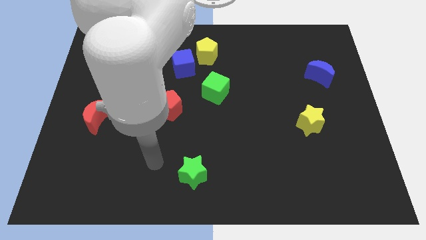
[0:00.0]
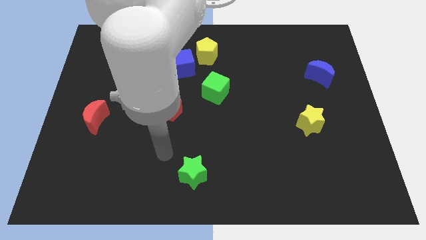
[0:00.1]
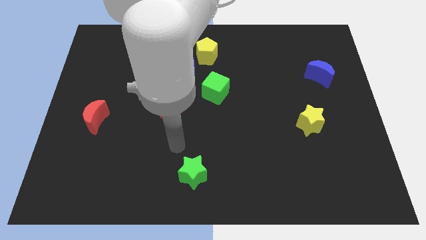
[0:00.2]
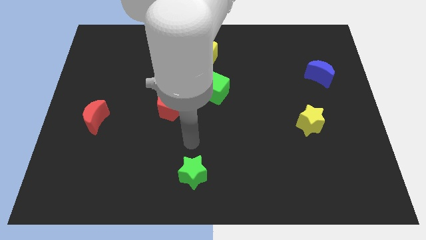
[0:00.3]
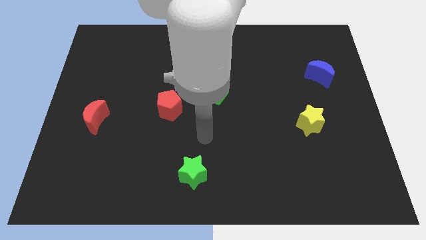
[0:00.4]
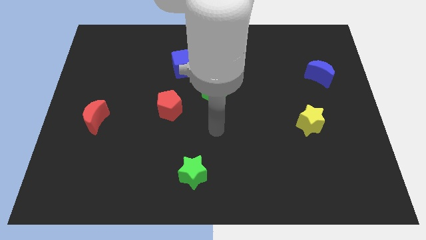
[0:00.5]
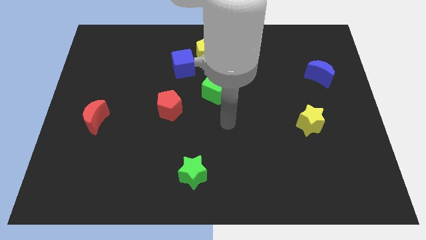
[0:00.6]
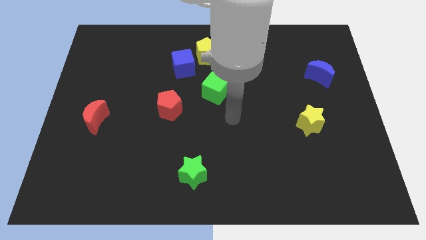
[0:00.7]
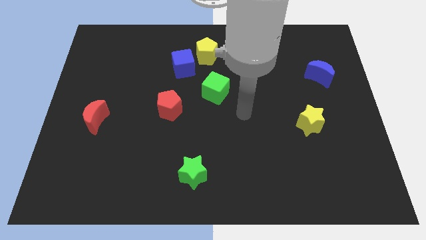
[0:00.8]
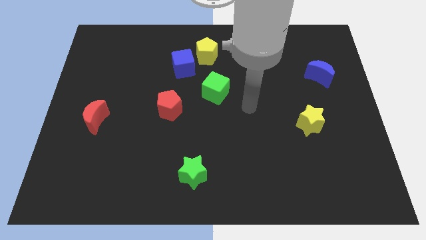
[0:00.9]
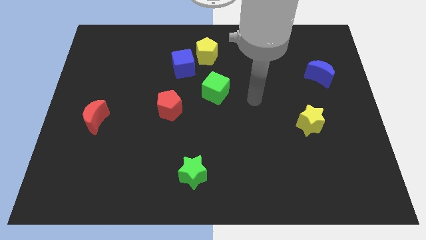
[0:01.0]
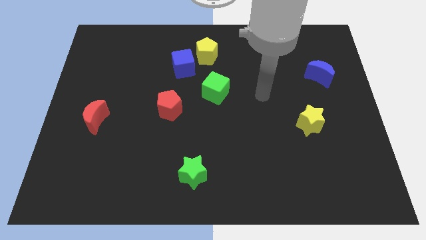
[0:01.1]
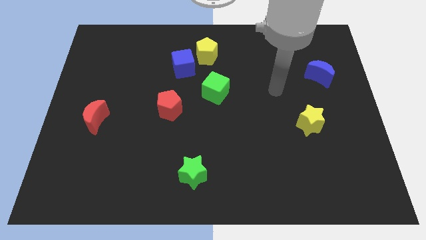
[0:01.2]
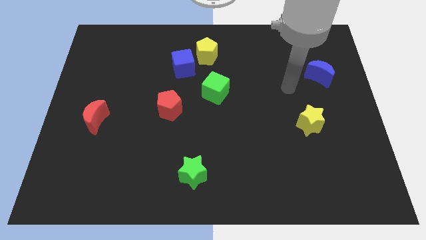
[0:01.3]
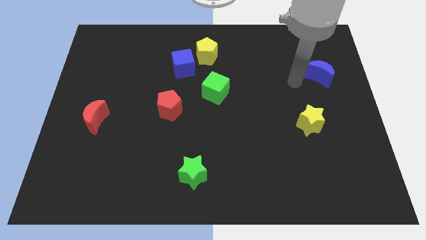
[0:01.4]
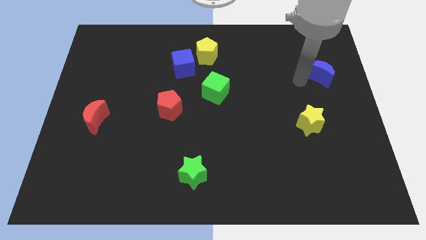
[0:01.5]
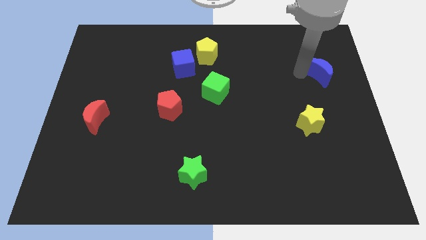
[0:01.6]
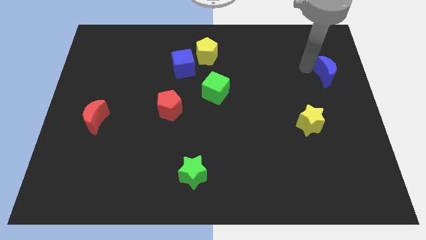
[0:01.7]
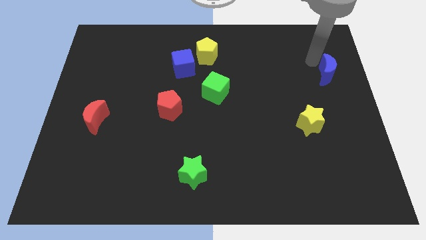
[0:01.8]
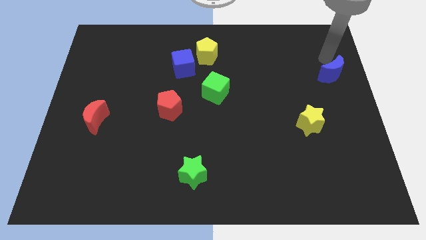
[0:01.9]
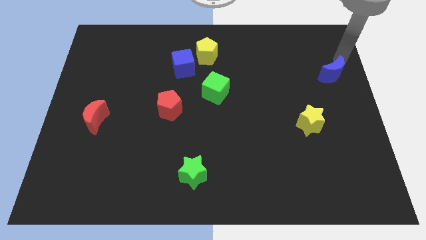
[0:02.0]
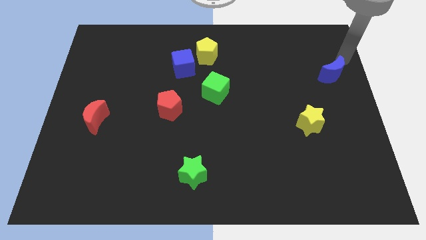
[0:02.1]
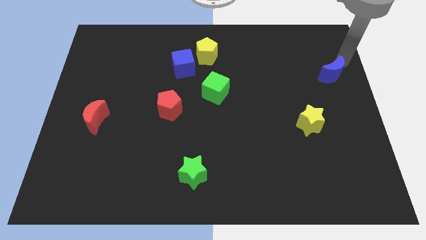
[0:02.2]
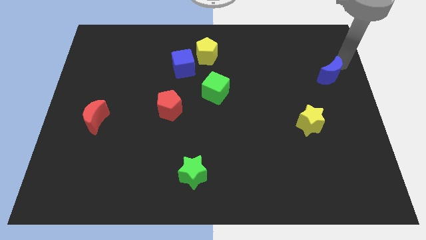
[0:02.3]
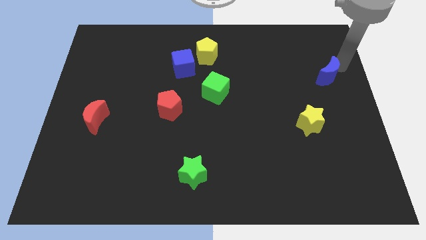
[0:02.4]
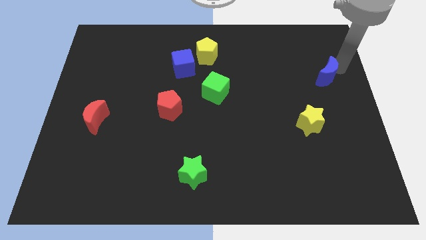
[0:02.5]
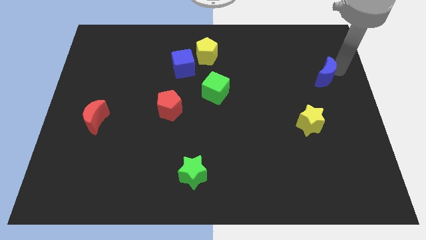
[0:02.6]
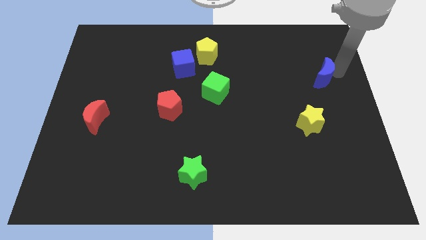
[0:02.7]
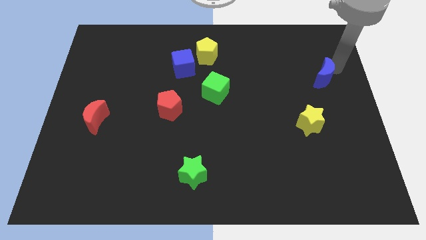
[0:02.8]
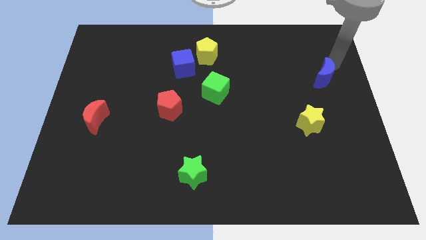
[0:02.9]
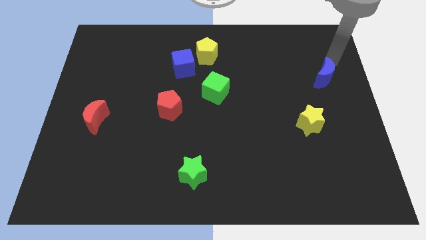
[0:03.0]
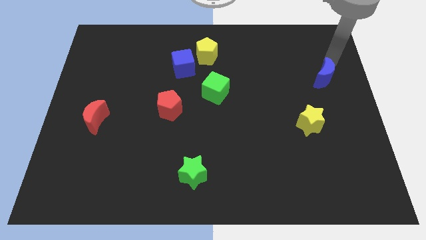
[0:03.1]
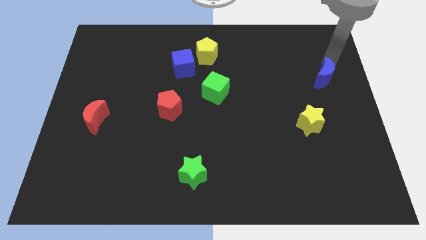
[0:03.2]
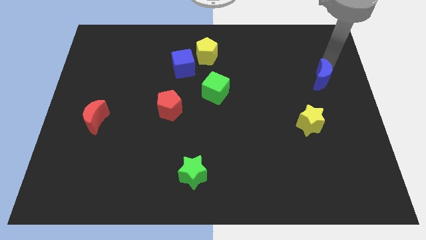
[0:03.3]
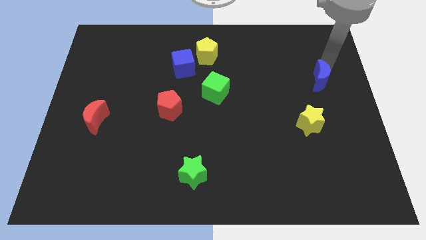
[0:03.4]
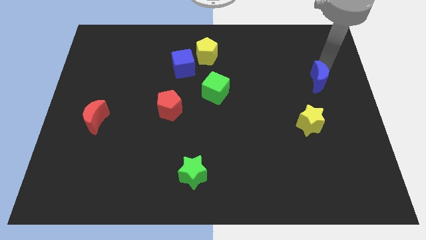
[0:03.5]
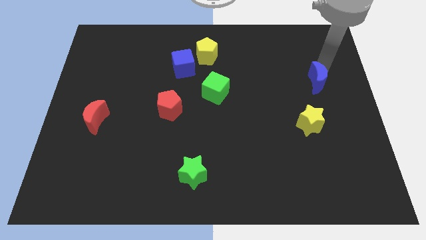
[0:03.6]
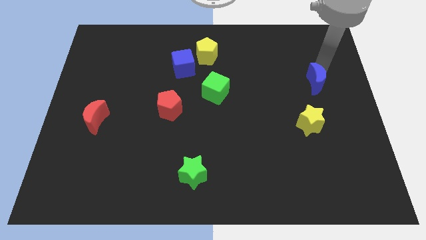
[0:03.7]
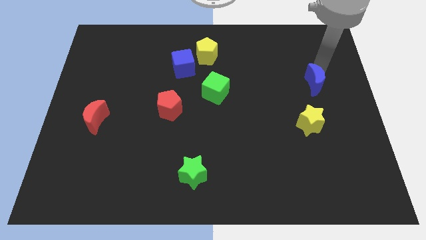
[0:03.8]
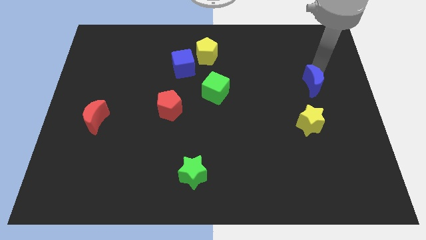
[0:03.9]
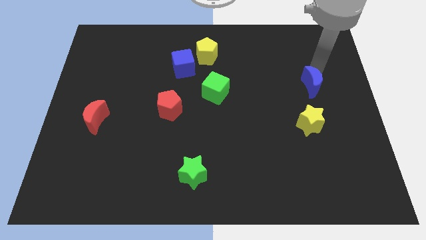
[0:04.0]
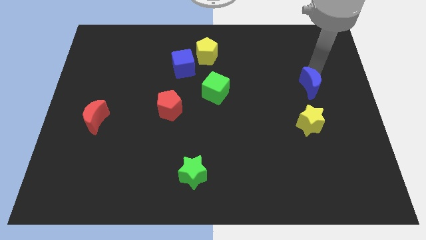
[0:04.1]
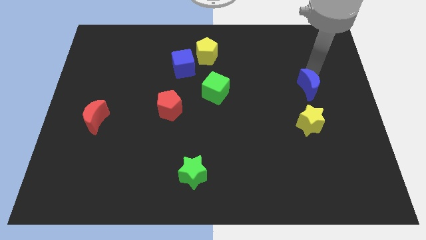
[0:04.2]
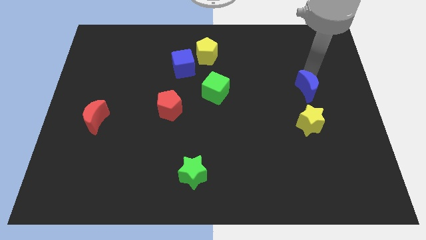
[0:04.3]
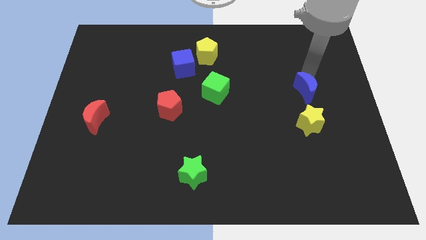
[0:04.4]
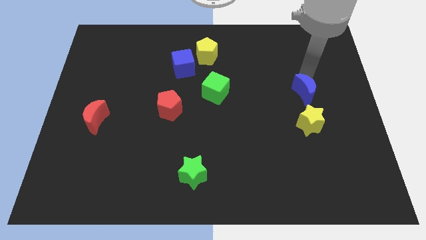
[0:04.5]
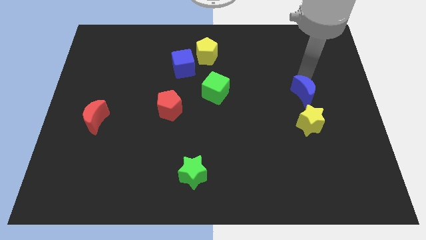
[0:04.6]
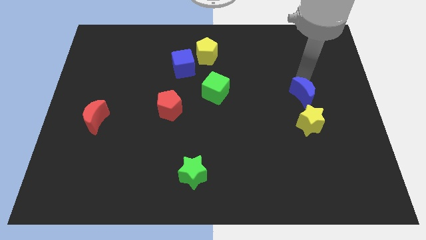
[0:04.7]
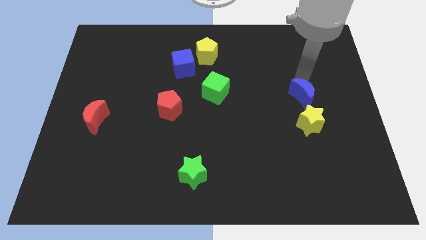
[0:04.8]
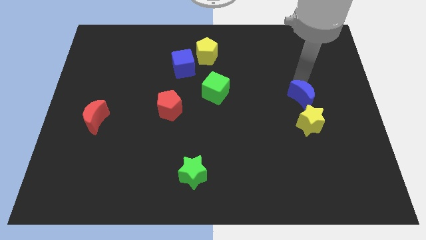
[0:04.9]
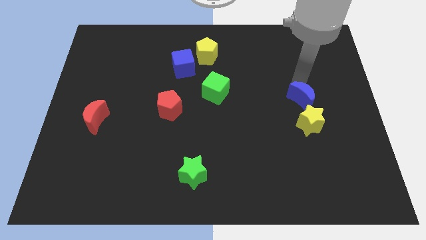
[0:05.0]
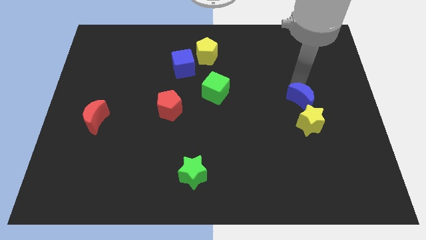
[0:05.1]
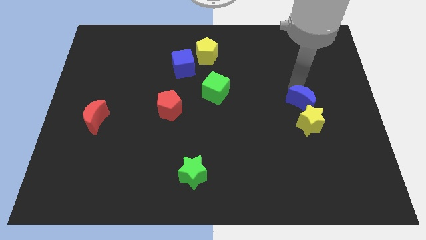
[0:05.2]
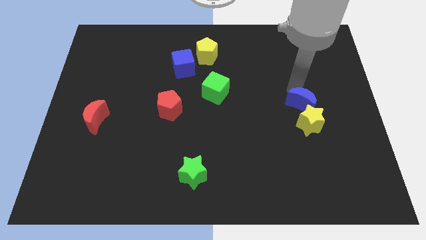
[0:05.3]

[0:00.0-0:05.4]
move the blue moon to the yellow star
